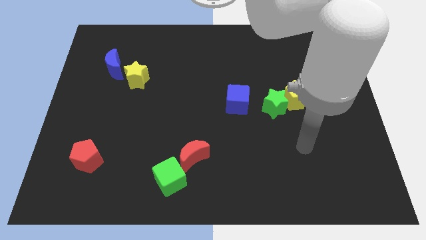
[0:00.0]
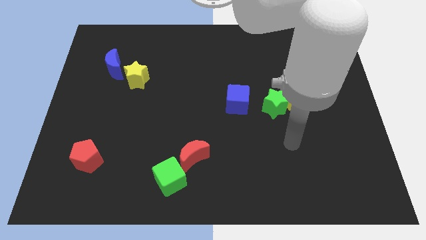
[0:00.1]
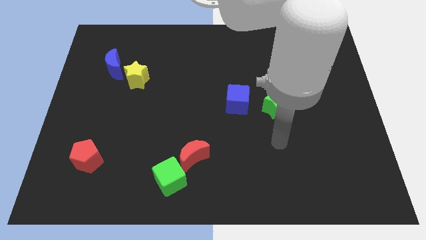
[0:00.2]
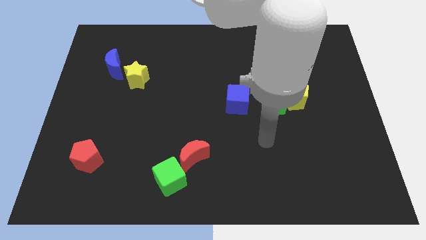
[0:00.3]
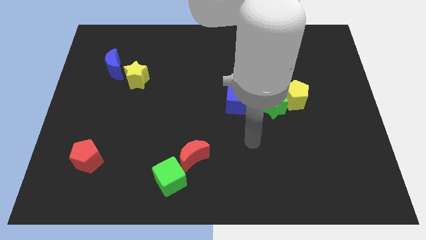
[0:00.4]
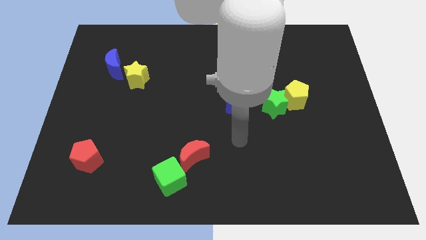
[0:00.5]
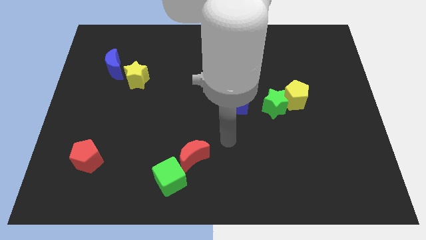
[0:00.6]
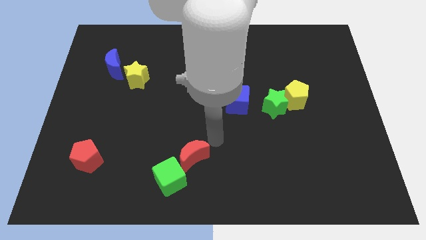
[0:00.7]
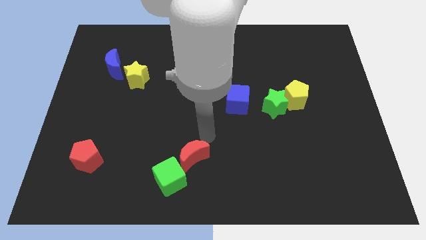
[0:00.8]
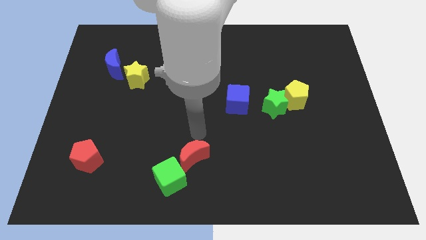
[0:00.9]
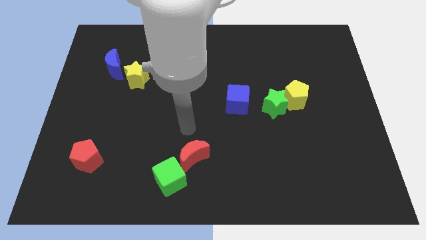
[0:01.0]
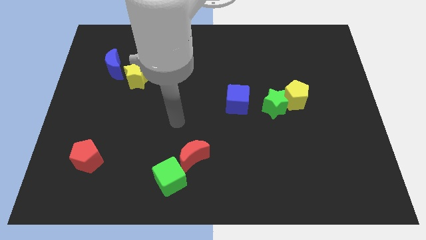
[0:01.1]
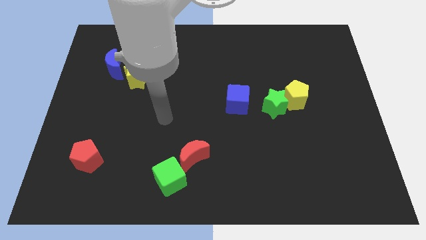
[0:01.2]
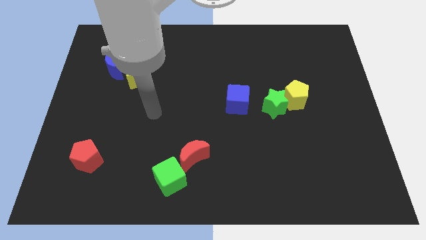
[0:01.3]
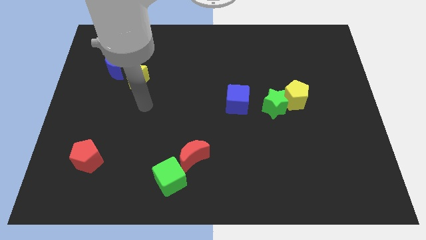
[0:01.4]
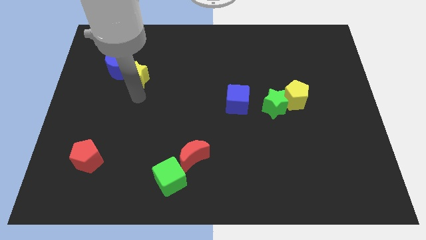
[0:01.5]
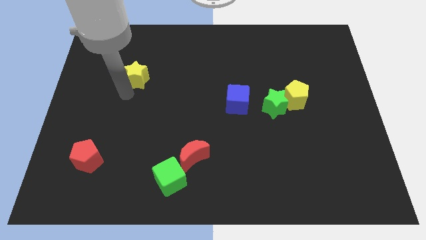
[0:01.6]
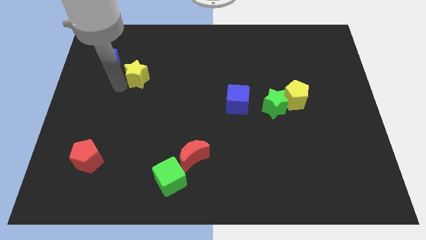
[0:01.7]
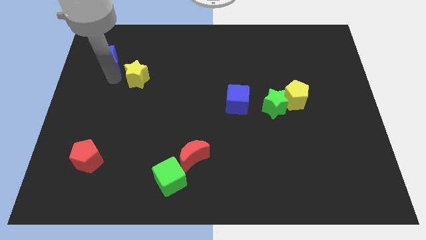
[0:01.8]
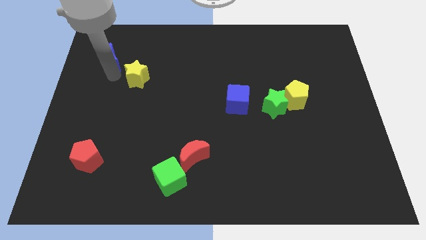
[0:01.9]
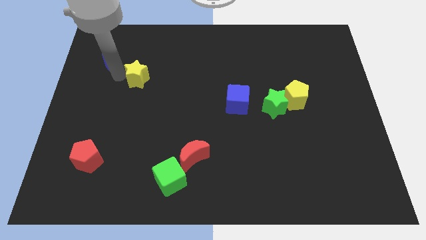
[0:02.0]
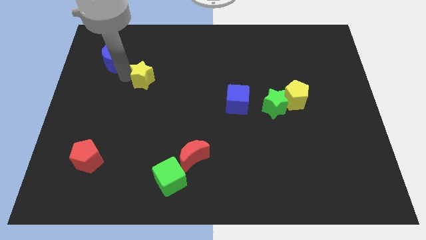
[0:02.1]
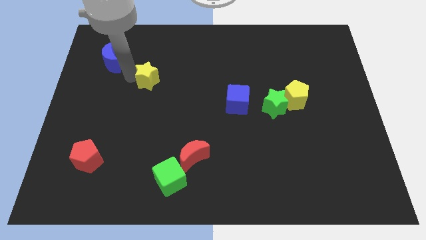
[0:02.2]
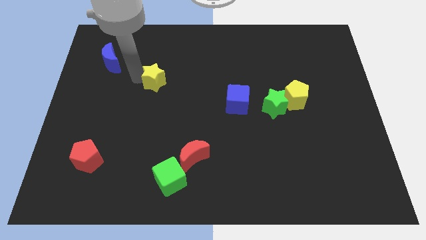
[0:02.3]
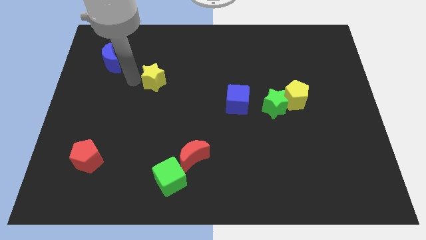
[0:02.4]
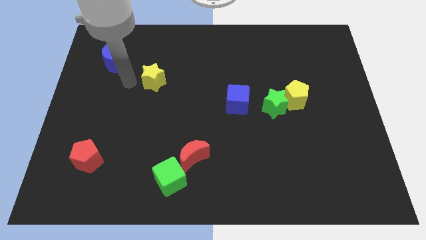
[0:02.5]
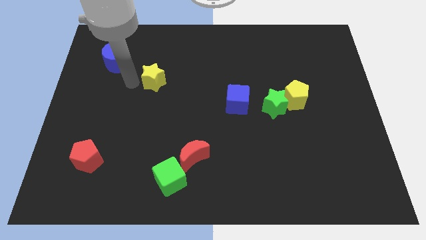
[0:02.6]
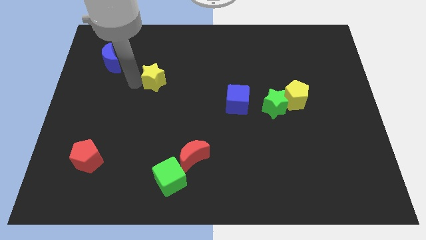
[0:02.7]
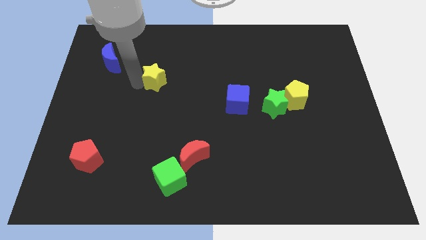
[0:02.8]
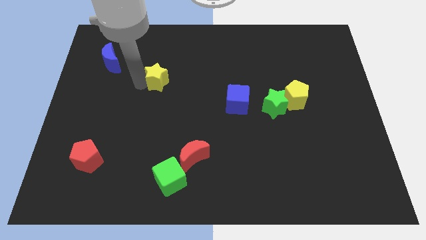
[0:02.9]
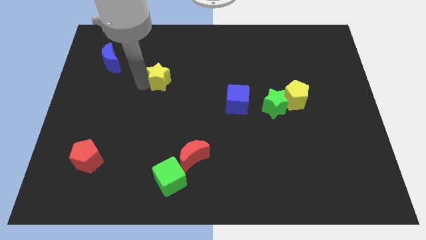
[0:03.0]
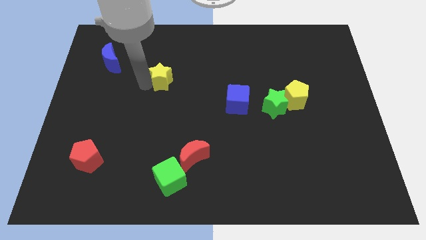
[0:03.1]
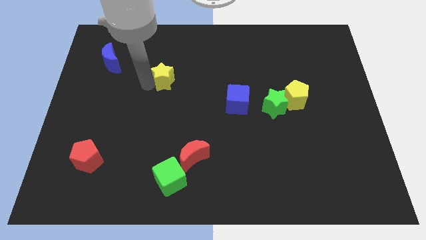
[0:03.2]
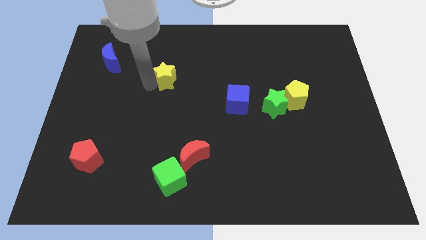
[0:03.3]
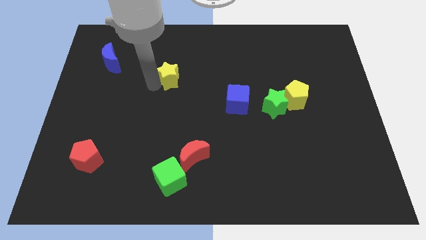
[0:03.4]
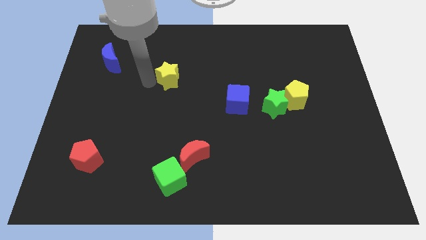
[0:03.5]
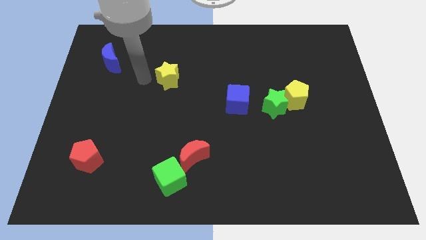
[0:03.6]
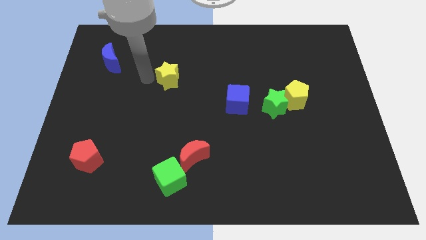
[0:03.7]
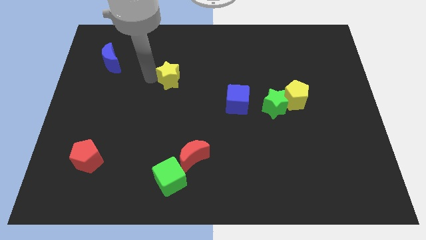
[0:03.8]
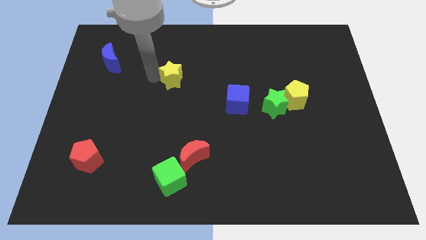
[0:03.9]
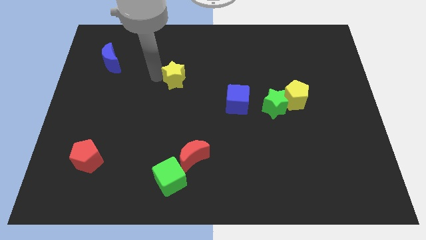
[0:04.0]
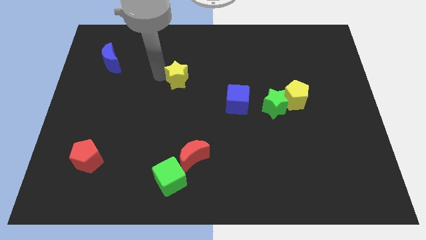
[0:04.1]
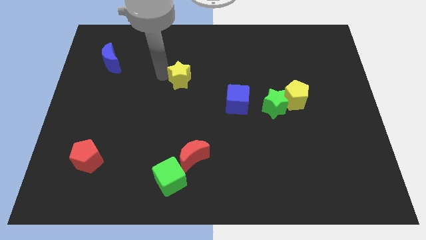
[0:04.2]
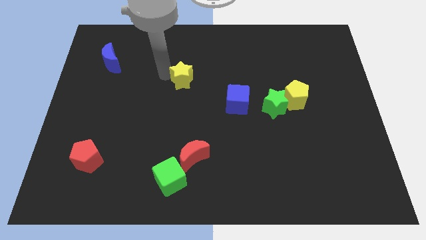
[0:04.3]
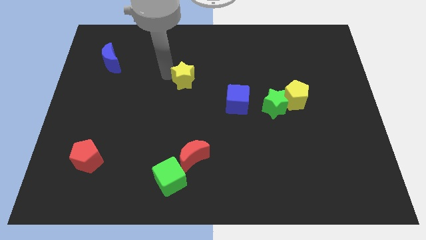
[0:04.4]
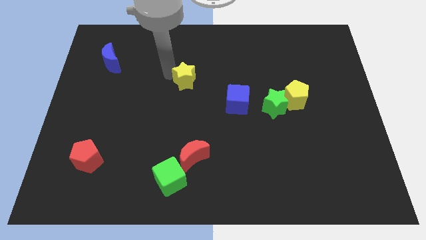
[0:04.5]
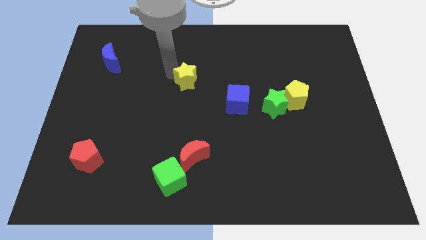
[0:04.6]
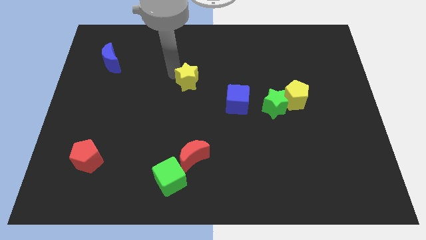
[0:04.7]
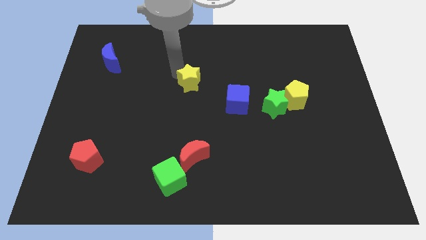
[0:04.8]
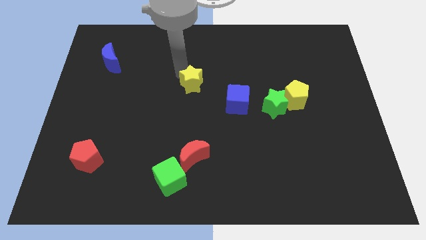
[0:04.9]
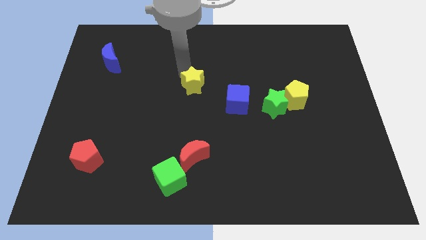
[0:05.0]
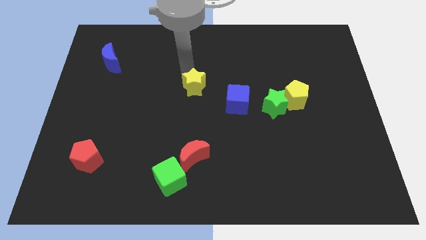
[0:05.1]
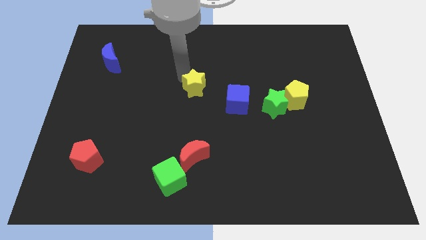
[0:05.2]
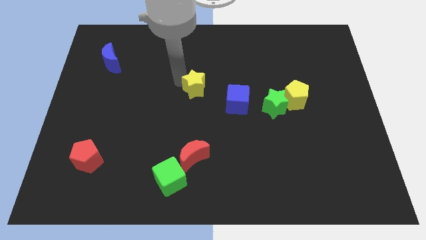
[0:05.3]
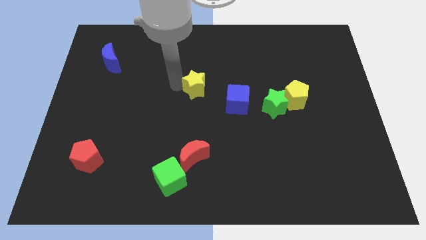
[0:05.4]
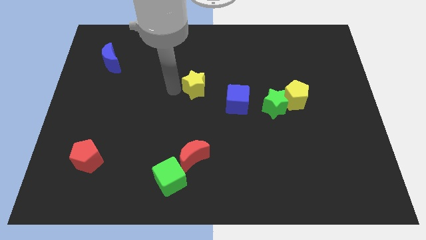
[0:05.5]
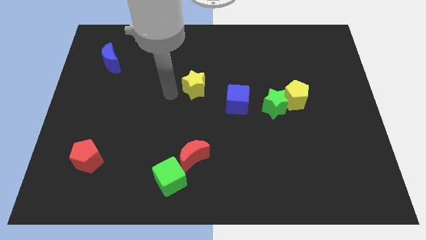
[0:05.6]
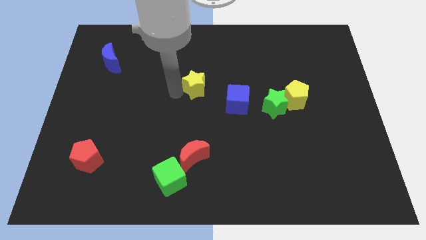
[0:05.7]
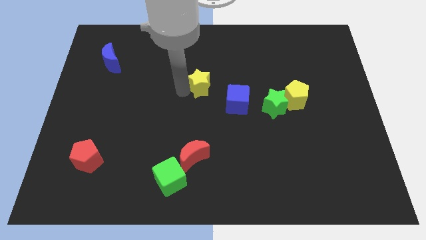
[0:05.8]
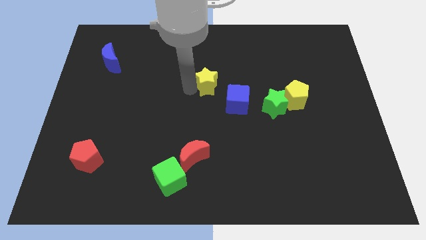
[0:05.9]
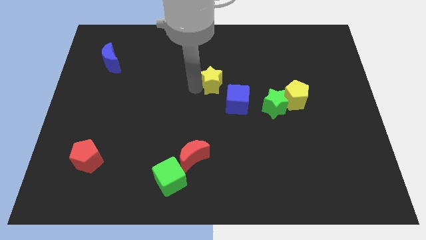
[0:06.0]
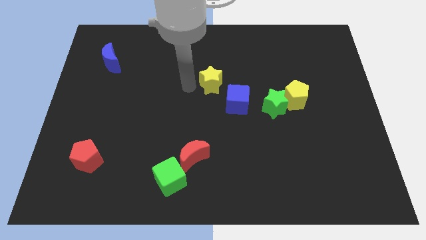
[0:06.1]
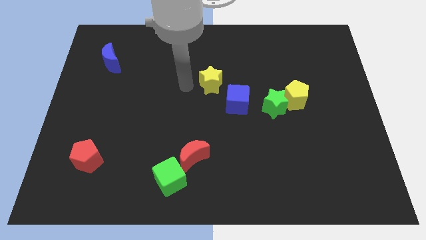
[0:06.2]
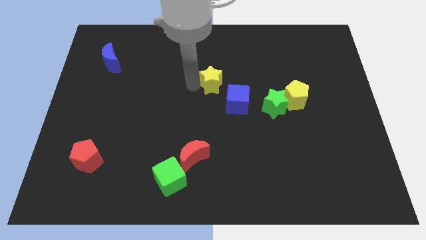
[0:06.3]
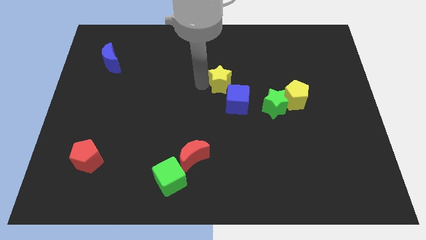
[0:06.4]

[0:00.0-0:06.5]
slide the yellow star right

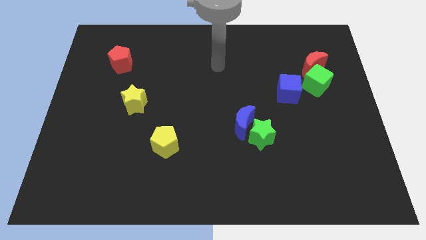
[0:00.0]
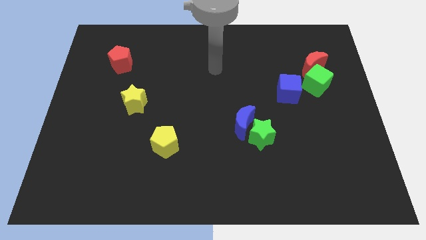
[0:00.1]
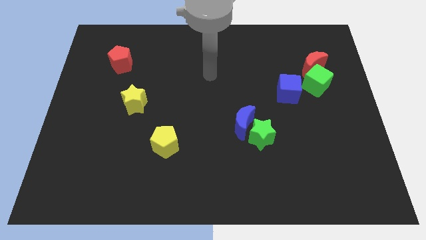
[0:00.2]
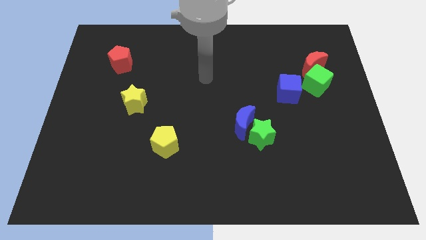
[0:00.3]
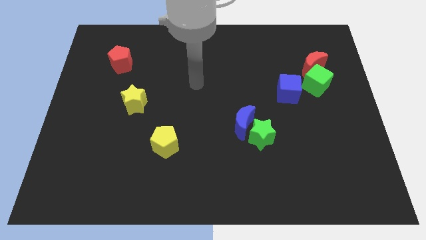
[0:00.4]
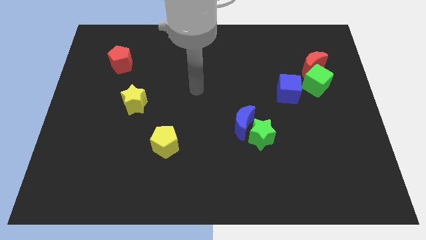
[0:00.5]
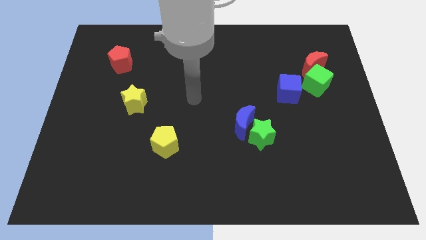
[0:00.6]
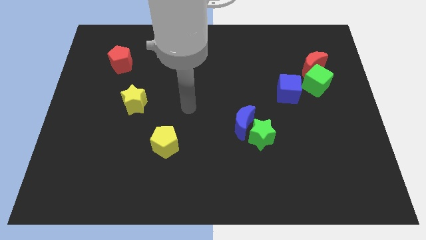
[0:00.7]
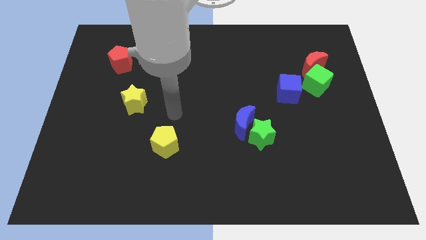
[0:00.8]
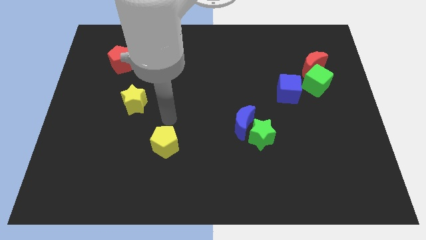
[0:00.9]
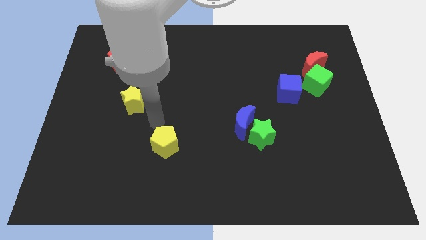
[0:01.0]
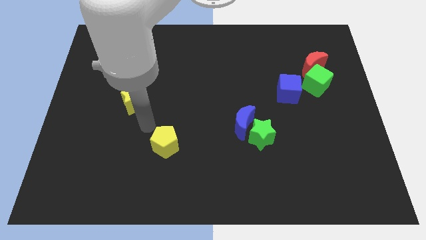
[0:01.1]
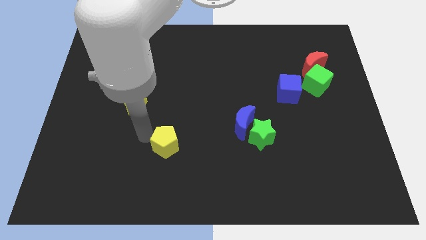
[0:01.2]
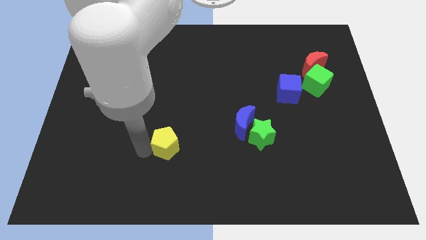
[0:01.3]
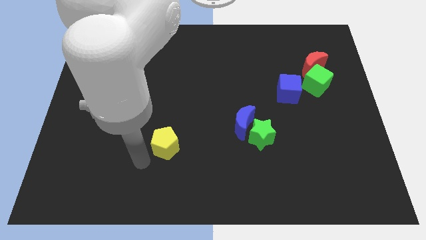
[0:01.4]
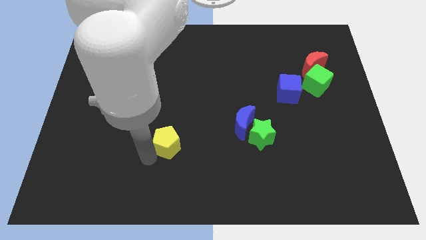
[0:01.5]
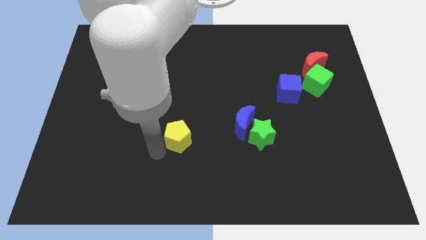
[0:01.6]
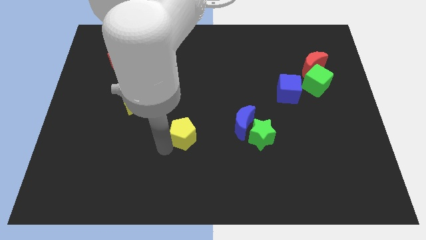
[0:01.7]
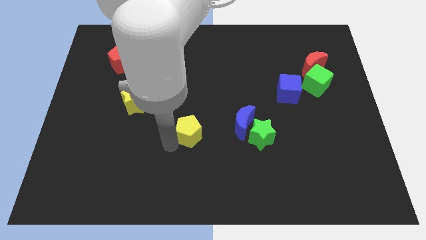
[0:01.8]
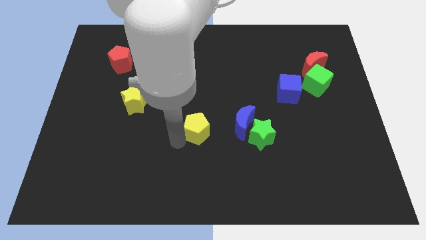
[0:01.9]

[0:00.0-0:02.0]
move the yellow pentagon a little up and right
